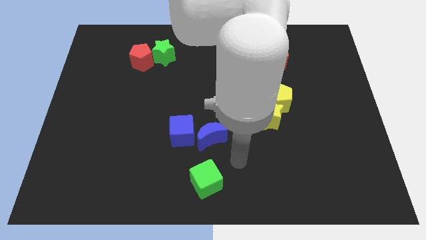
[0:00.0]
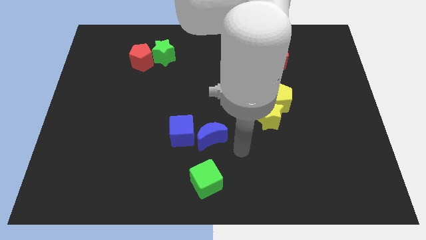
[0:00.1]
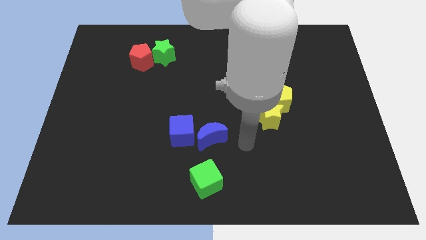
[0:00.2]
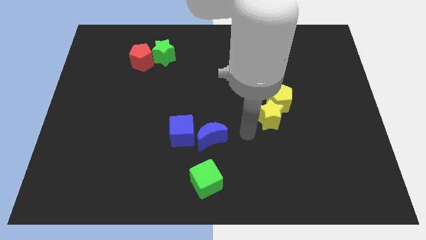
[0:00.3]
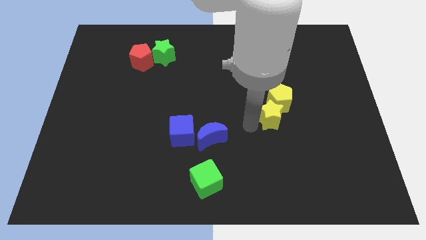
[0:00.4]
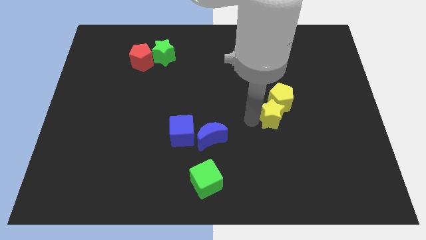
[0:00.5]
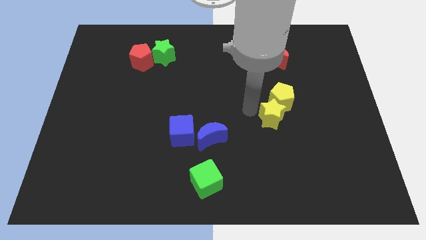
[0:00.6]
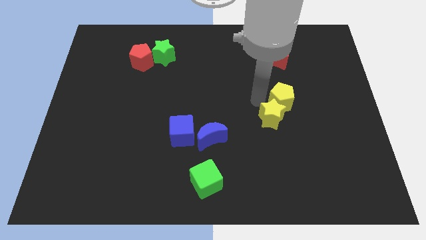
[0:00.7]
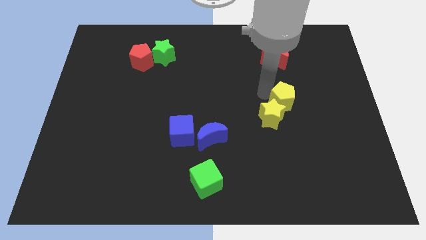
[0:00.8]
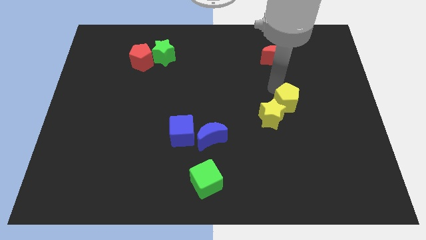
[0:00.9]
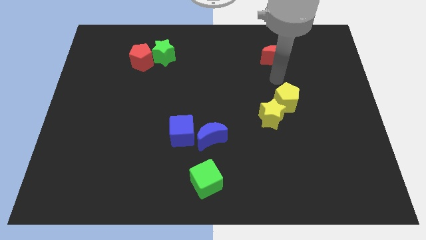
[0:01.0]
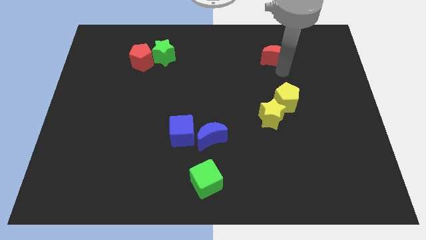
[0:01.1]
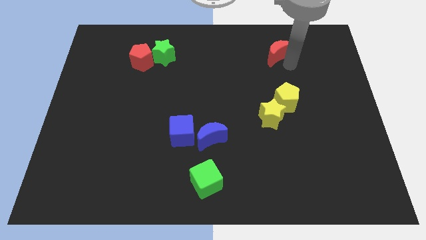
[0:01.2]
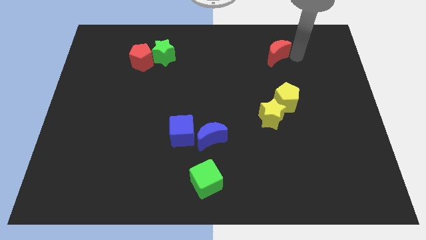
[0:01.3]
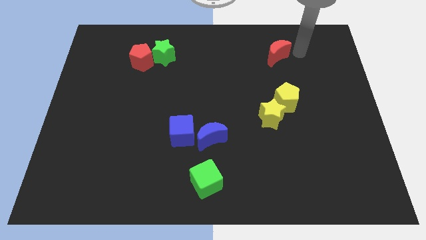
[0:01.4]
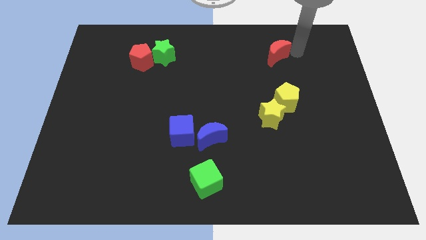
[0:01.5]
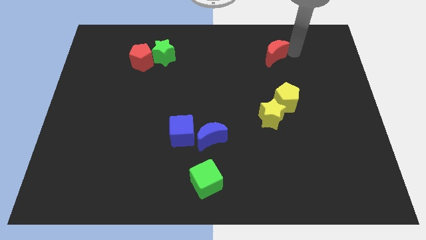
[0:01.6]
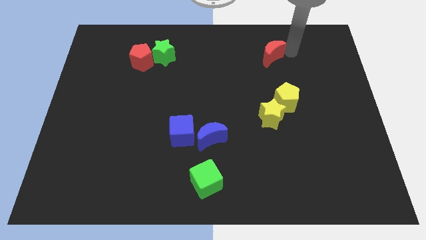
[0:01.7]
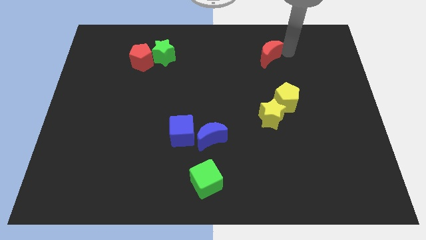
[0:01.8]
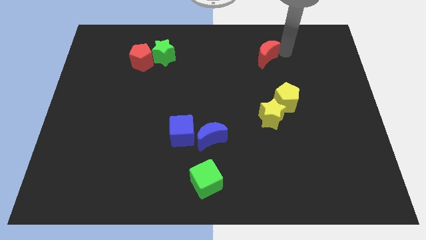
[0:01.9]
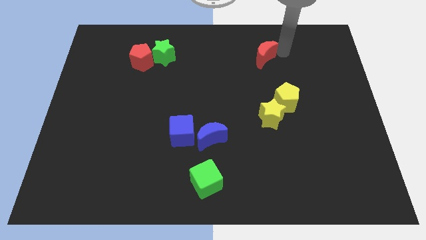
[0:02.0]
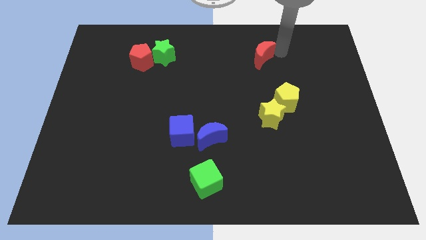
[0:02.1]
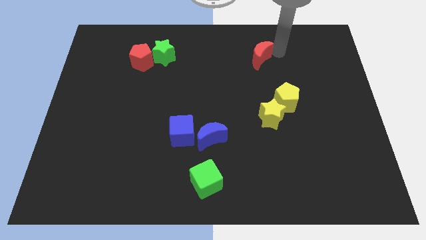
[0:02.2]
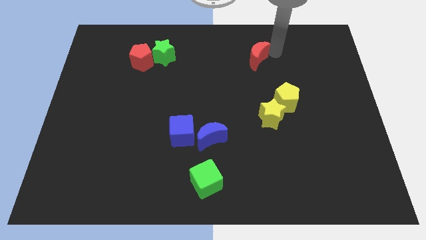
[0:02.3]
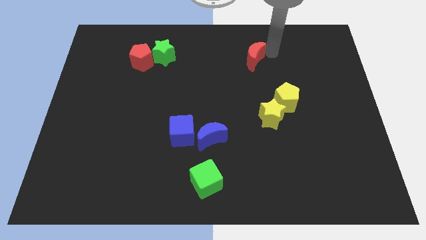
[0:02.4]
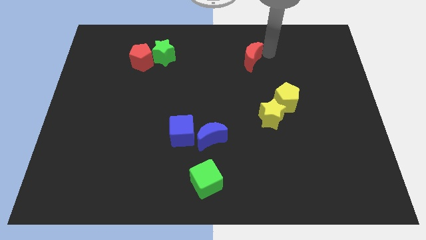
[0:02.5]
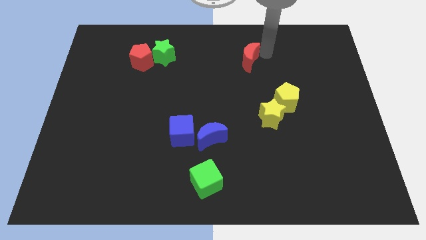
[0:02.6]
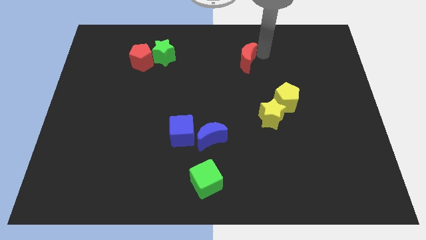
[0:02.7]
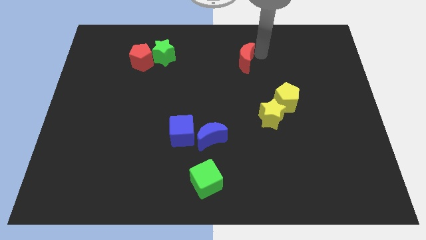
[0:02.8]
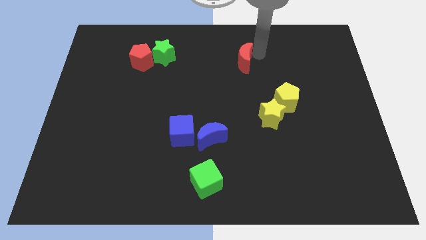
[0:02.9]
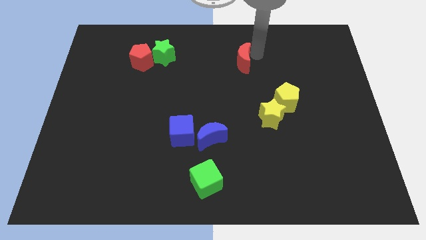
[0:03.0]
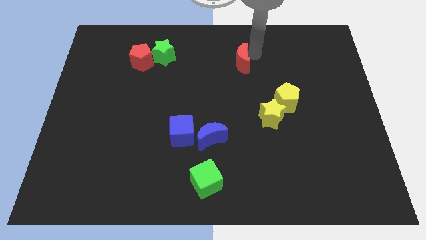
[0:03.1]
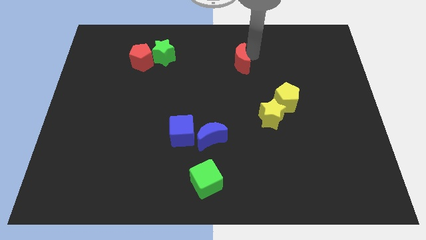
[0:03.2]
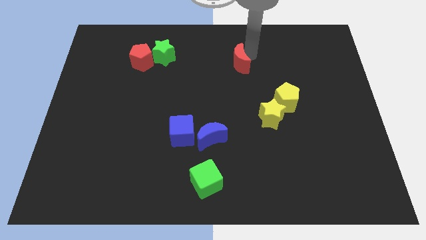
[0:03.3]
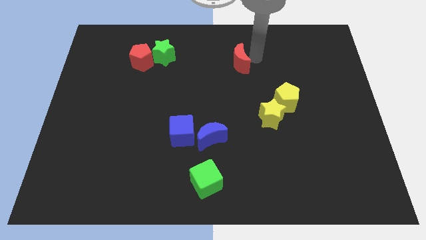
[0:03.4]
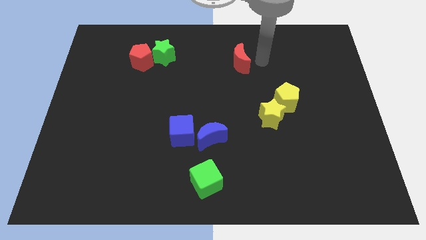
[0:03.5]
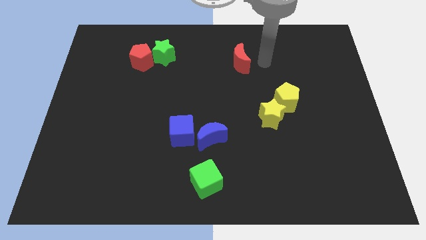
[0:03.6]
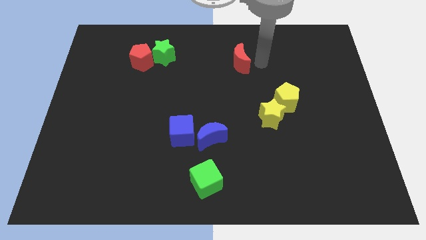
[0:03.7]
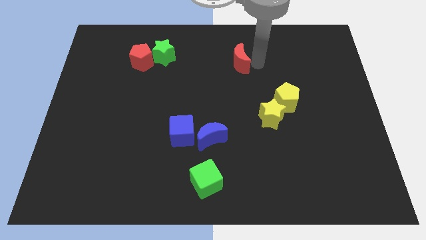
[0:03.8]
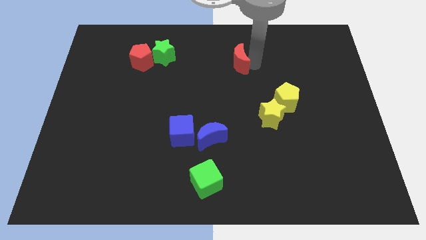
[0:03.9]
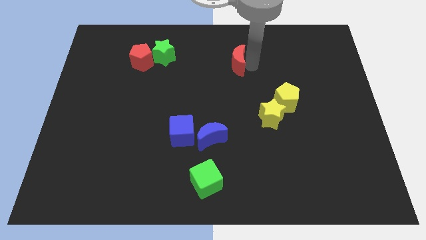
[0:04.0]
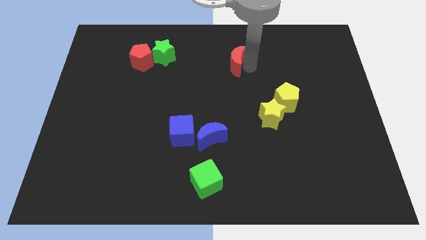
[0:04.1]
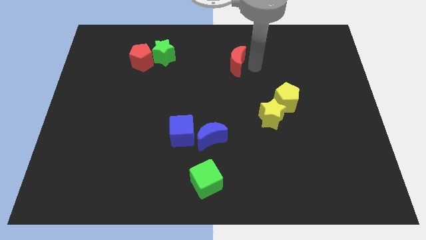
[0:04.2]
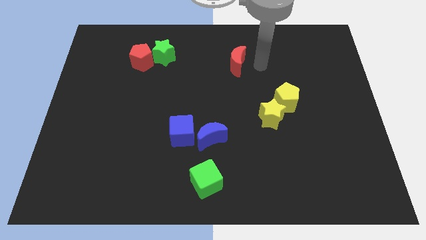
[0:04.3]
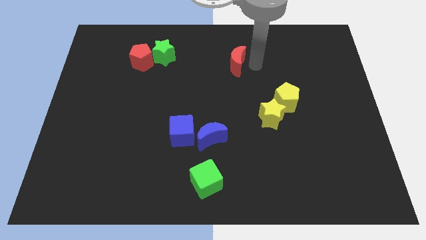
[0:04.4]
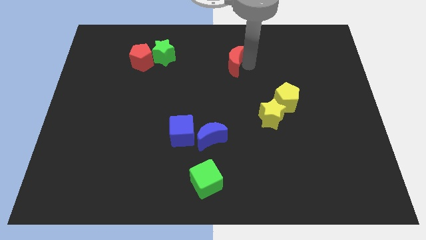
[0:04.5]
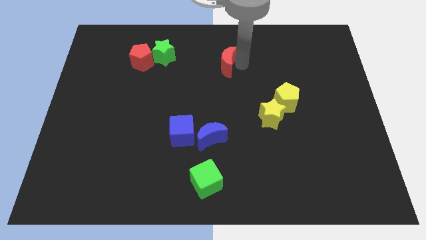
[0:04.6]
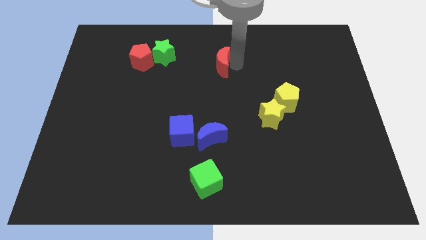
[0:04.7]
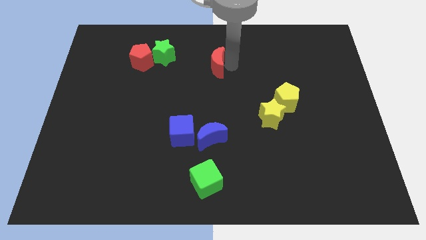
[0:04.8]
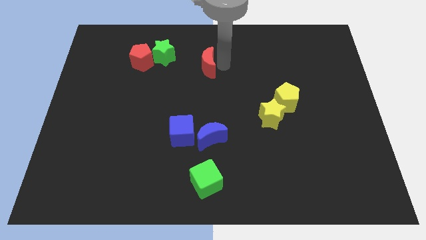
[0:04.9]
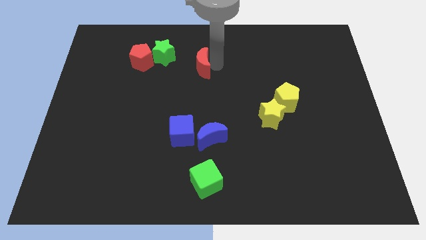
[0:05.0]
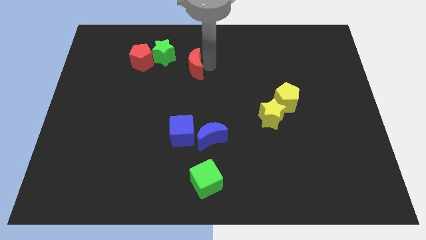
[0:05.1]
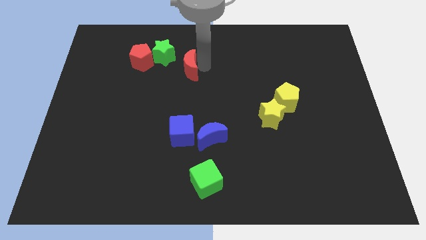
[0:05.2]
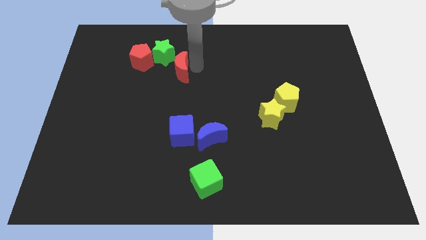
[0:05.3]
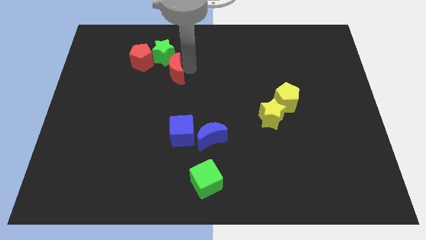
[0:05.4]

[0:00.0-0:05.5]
put the red moon diagonally down and to the right of the red pentagon

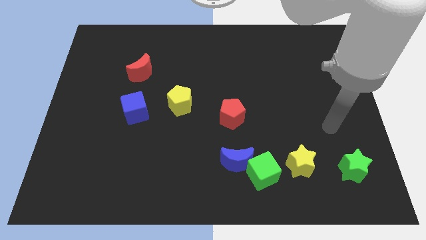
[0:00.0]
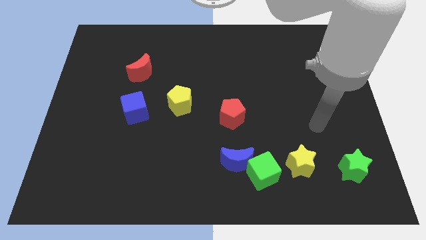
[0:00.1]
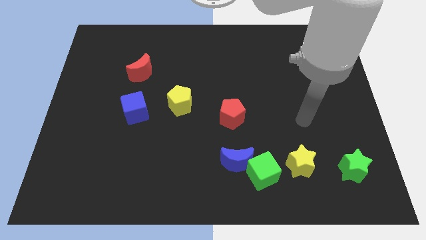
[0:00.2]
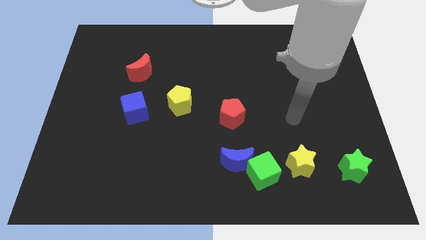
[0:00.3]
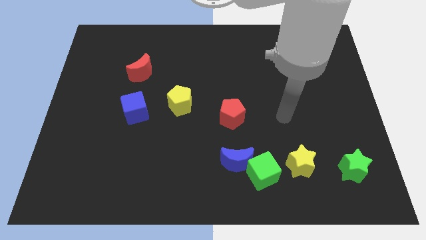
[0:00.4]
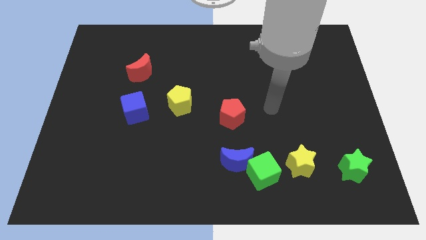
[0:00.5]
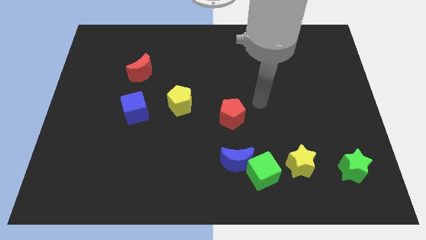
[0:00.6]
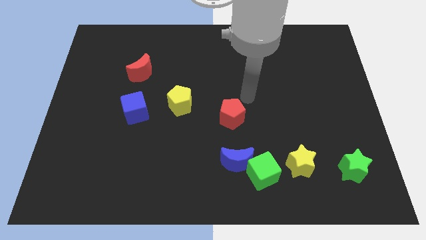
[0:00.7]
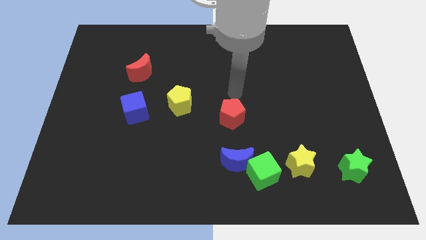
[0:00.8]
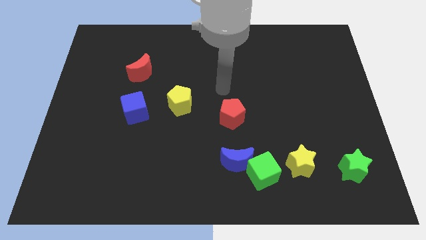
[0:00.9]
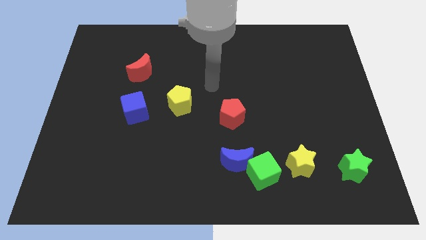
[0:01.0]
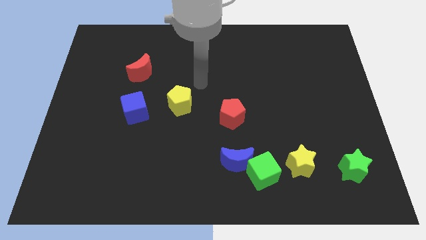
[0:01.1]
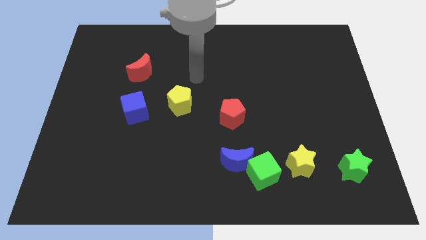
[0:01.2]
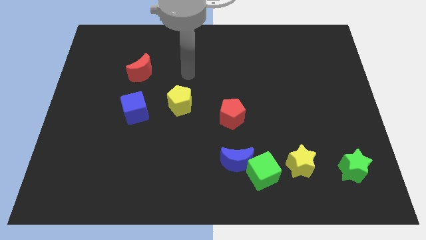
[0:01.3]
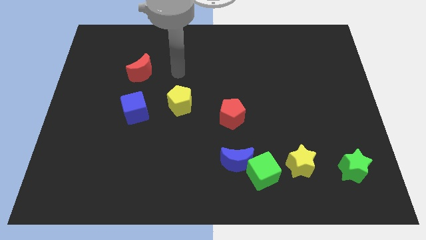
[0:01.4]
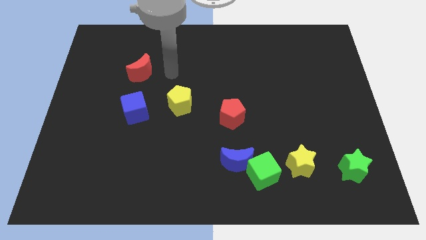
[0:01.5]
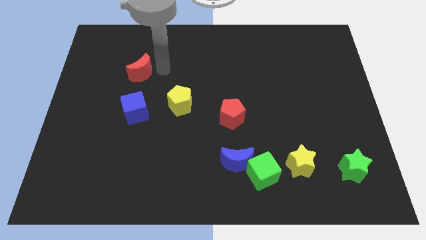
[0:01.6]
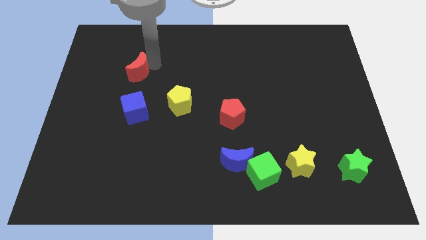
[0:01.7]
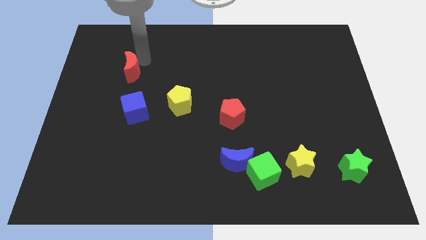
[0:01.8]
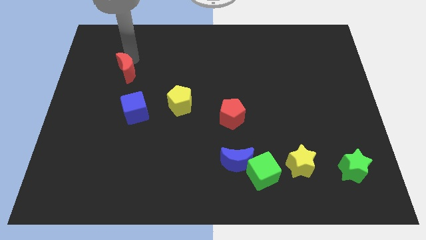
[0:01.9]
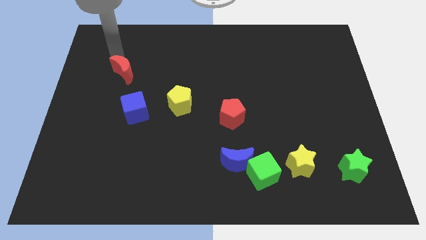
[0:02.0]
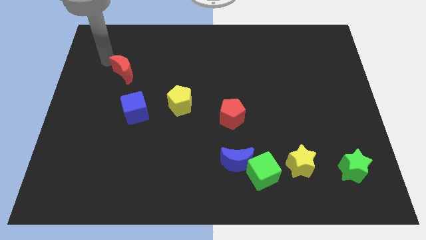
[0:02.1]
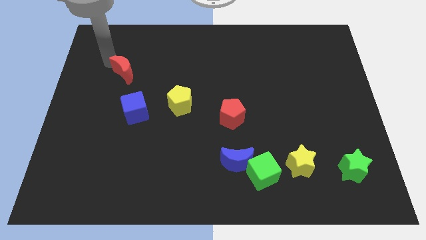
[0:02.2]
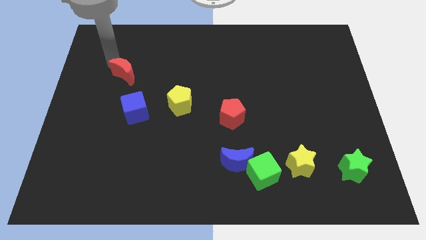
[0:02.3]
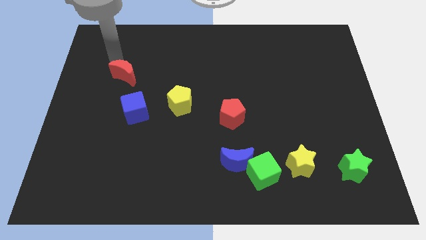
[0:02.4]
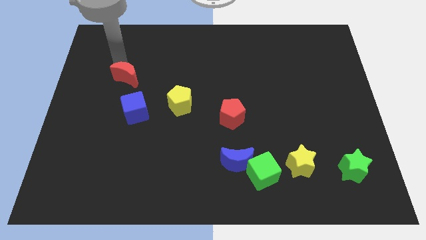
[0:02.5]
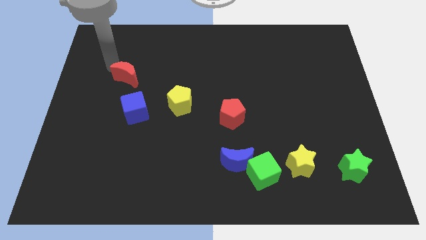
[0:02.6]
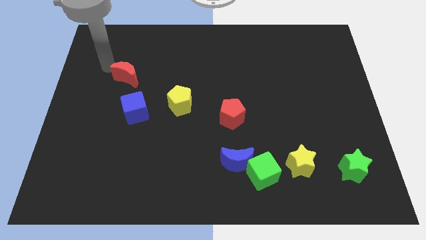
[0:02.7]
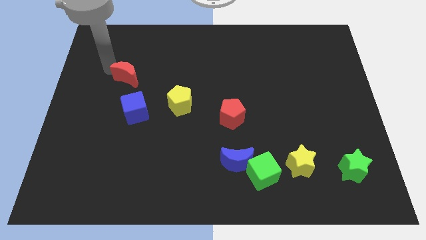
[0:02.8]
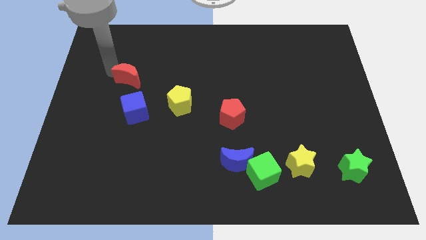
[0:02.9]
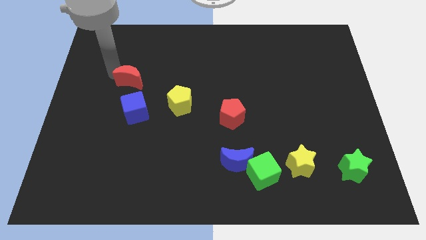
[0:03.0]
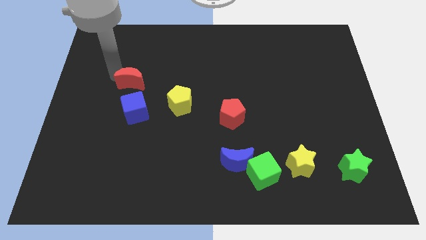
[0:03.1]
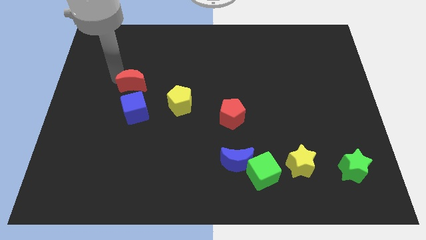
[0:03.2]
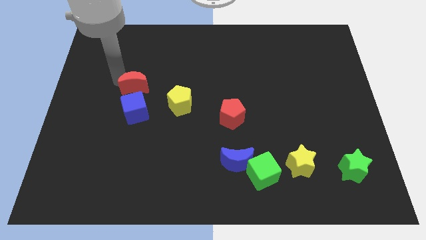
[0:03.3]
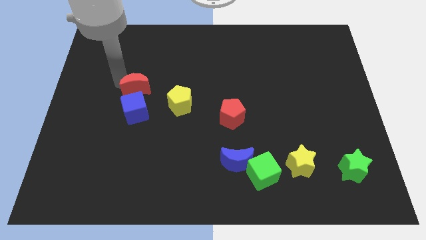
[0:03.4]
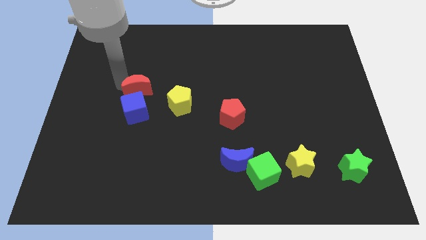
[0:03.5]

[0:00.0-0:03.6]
put the red moon to the top right of the blue cube
